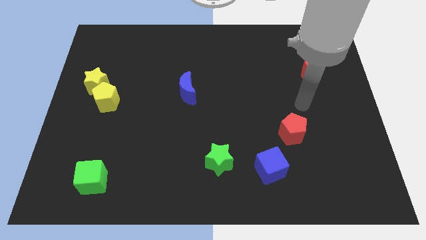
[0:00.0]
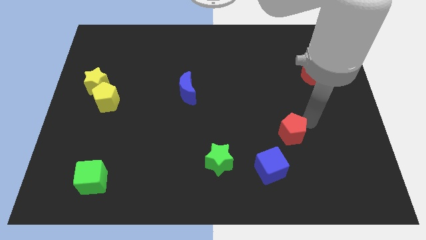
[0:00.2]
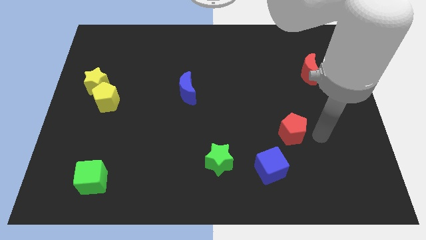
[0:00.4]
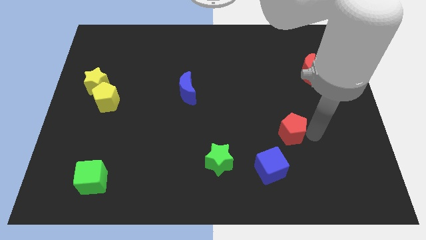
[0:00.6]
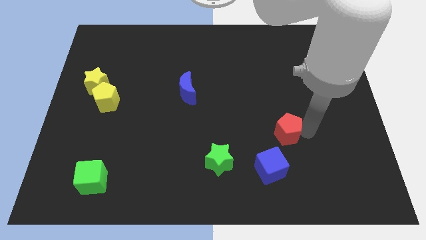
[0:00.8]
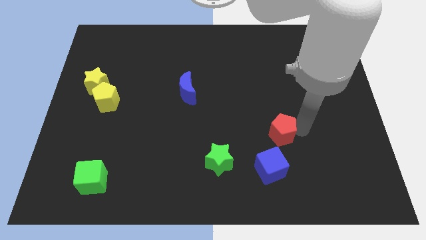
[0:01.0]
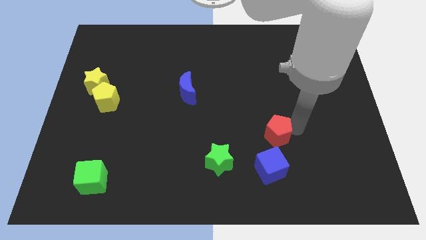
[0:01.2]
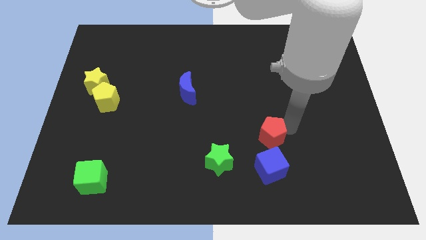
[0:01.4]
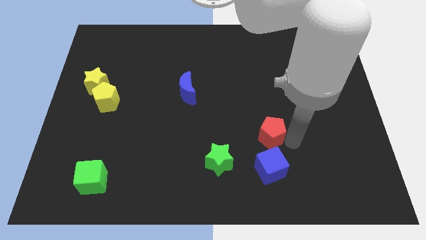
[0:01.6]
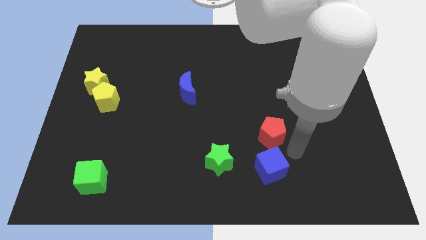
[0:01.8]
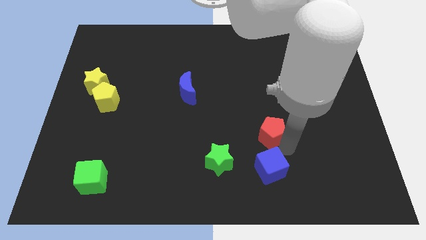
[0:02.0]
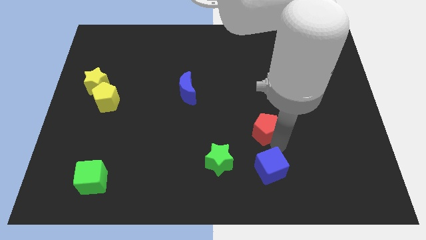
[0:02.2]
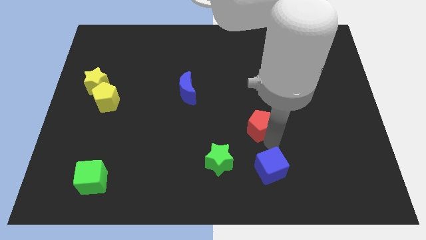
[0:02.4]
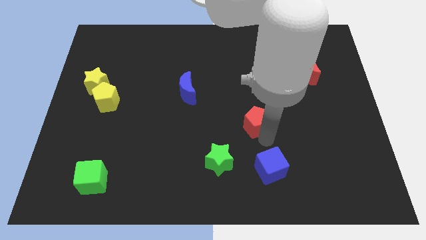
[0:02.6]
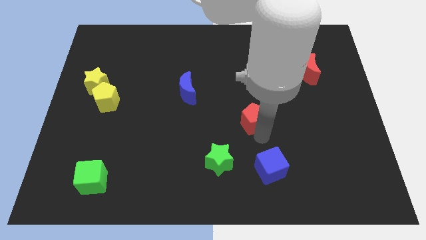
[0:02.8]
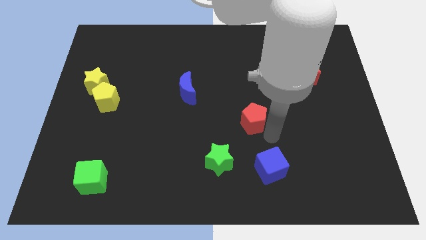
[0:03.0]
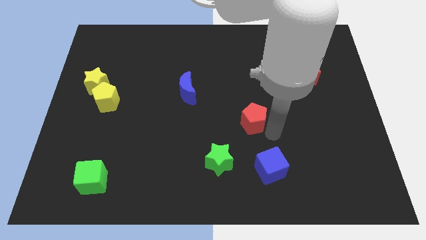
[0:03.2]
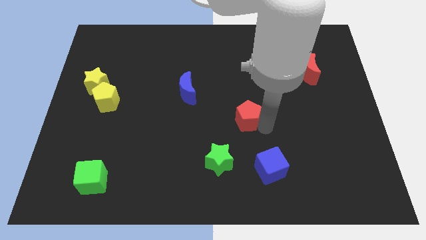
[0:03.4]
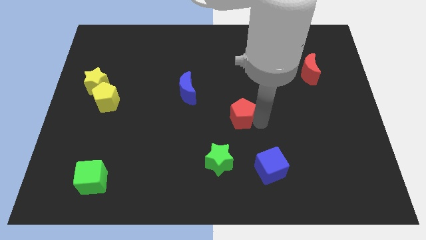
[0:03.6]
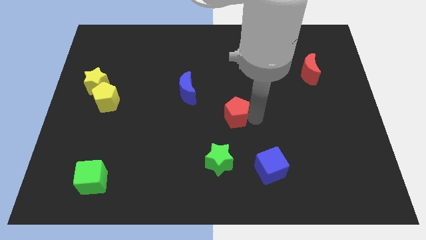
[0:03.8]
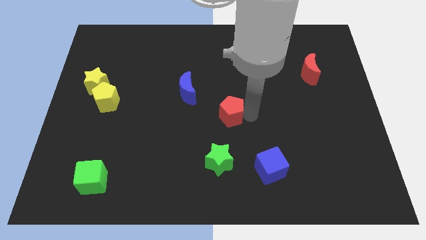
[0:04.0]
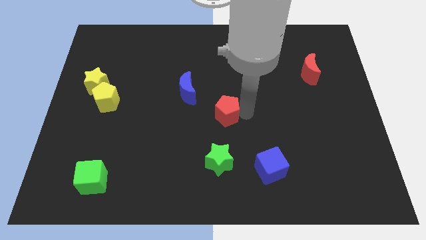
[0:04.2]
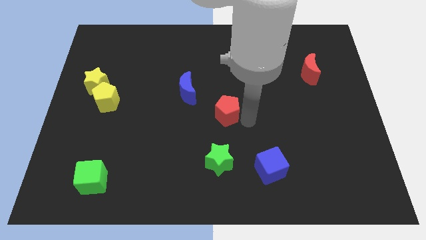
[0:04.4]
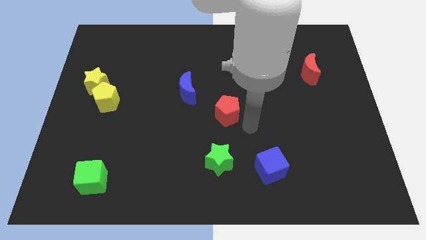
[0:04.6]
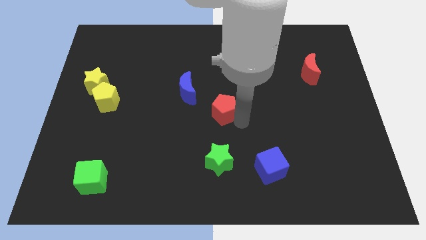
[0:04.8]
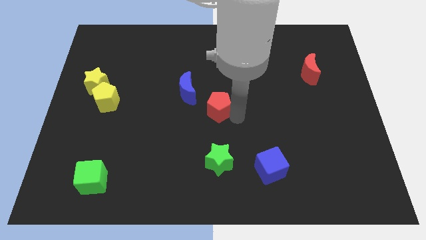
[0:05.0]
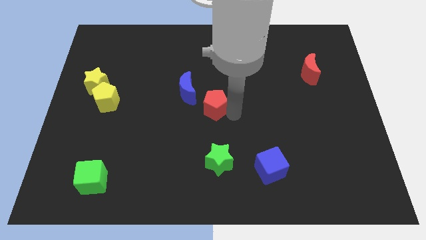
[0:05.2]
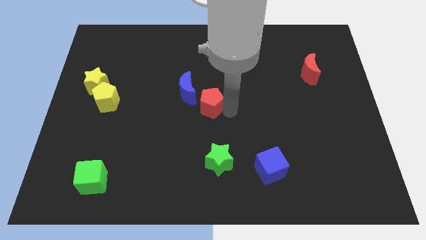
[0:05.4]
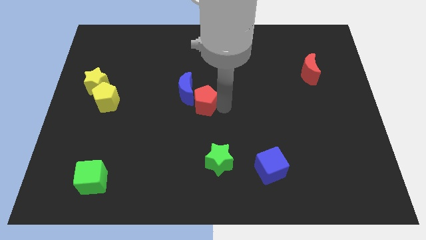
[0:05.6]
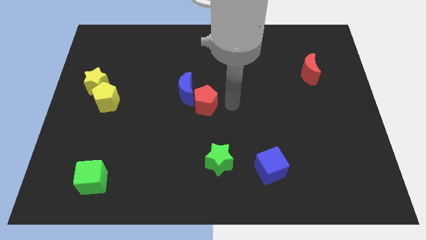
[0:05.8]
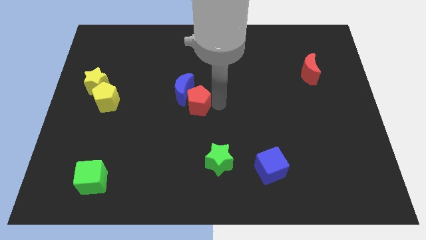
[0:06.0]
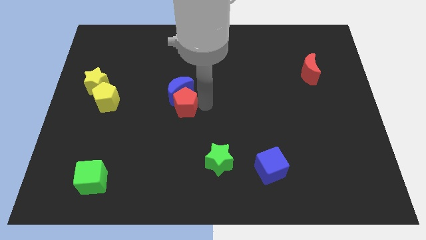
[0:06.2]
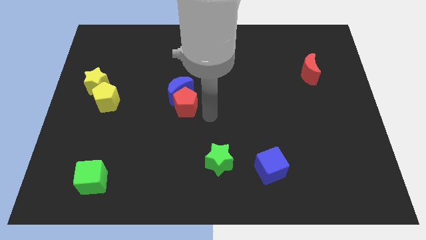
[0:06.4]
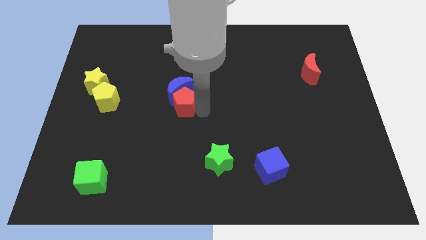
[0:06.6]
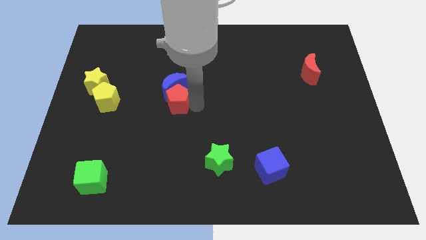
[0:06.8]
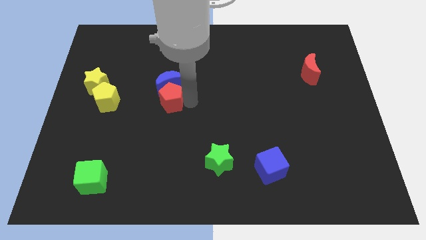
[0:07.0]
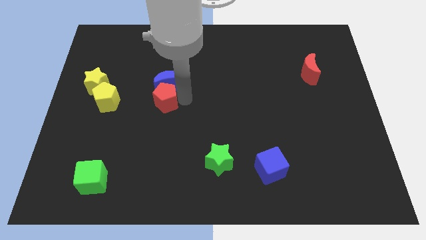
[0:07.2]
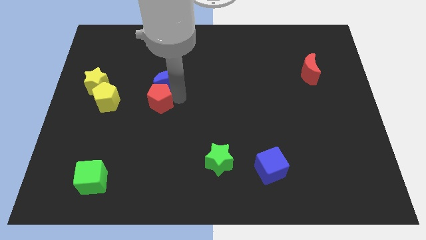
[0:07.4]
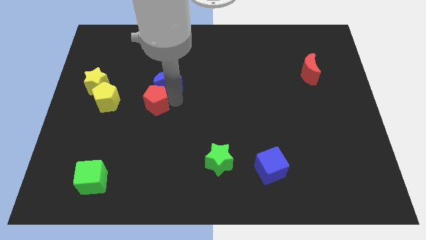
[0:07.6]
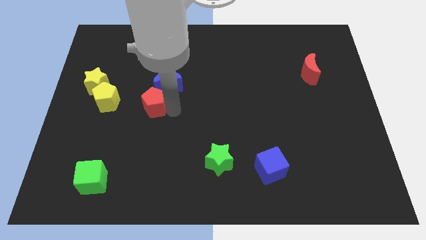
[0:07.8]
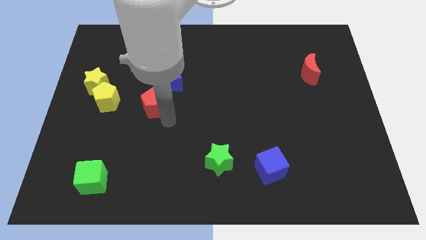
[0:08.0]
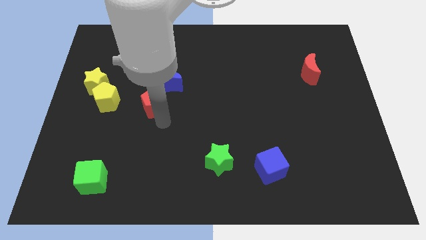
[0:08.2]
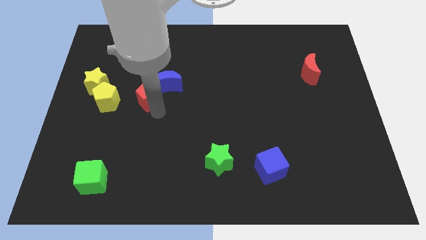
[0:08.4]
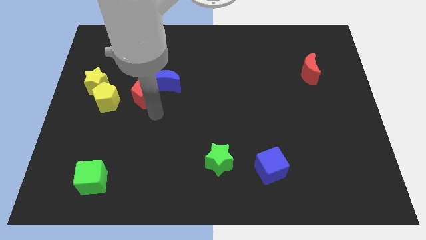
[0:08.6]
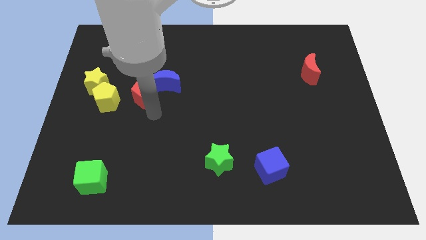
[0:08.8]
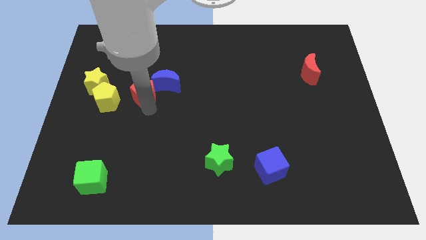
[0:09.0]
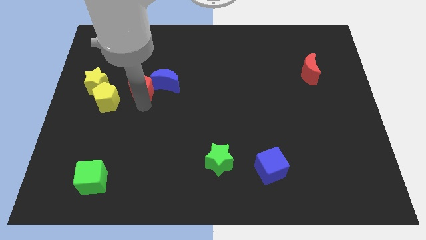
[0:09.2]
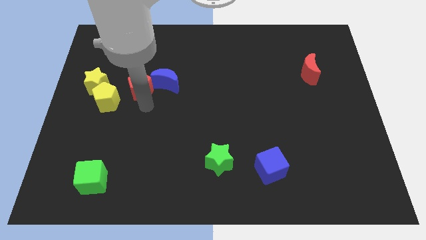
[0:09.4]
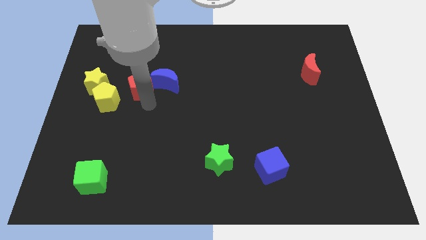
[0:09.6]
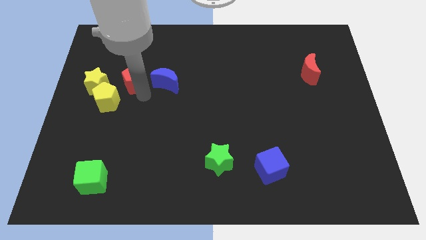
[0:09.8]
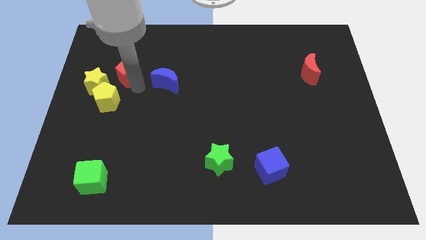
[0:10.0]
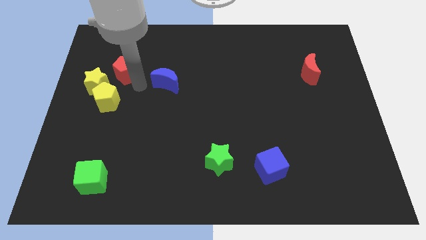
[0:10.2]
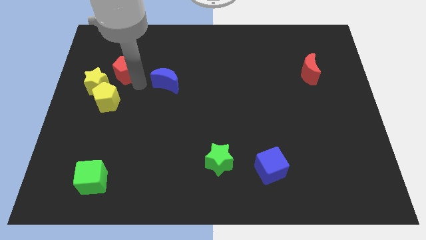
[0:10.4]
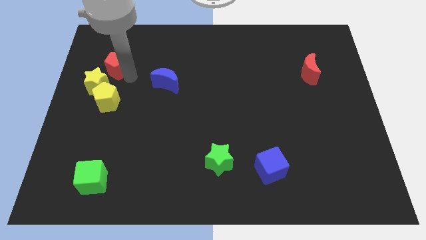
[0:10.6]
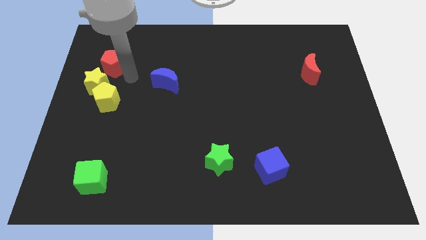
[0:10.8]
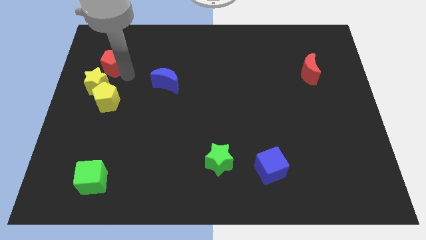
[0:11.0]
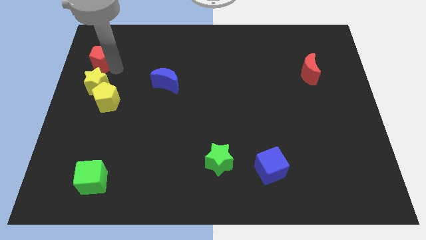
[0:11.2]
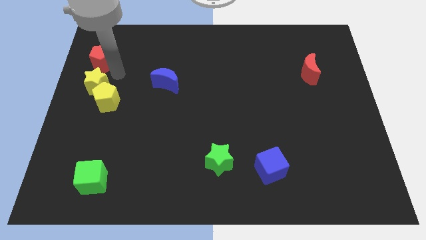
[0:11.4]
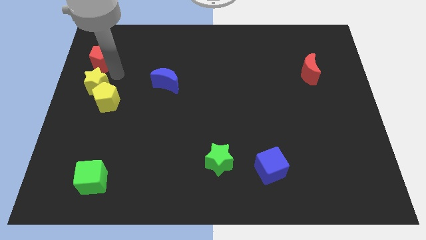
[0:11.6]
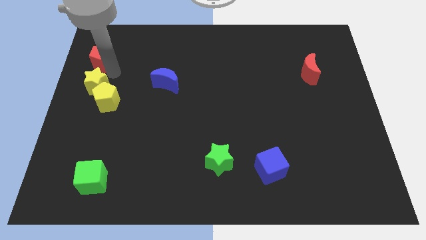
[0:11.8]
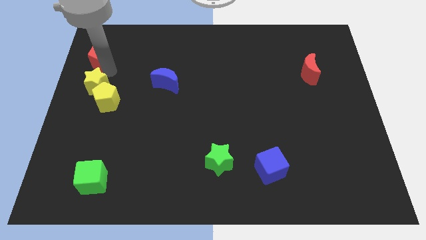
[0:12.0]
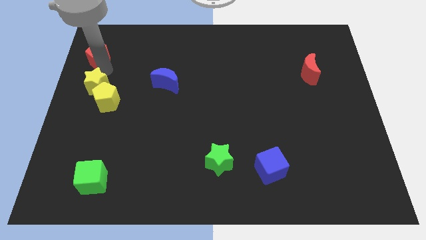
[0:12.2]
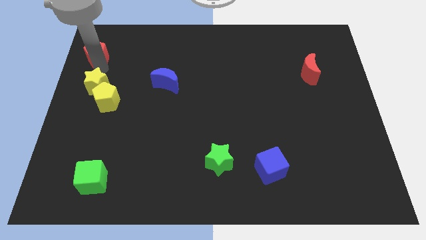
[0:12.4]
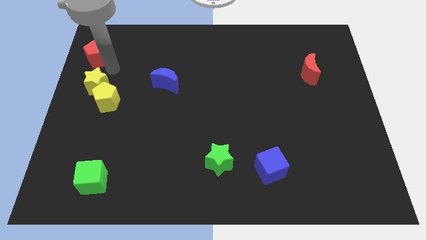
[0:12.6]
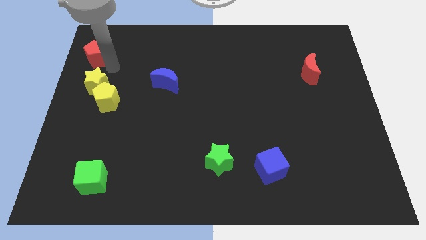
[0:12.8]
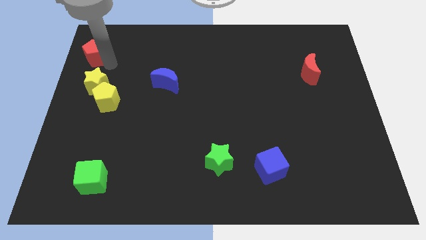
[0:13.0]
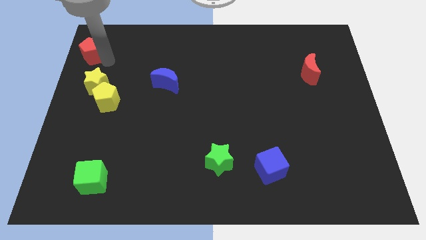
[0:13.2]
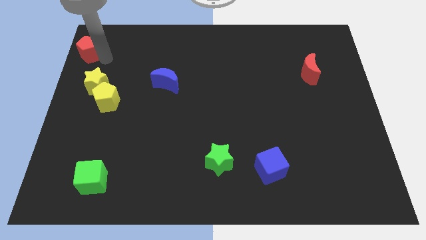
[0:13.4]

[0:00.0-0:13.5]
put the red pentagon to the top left of the board
